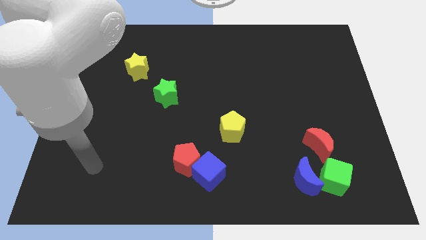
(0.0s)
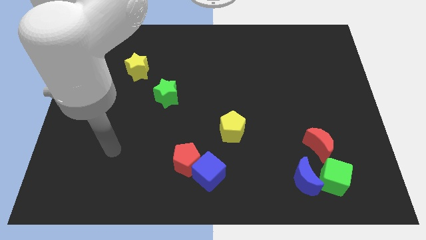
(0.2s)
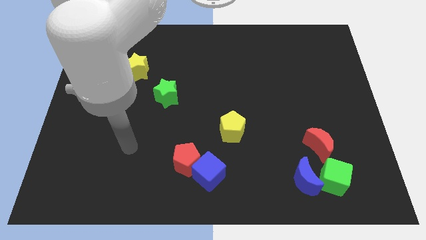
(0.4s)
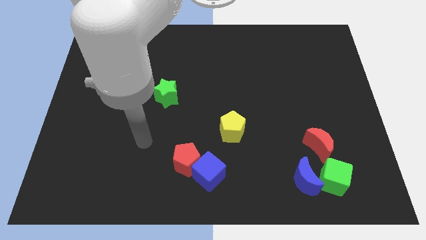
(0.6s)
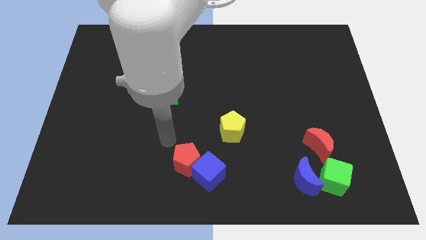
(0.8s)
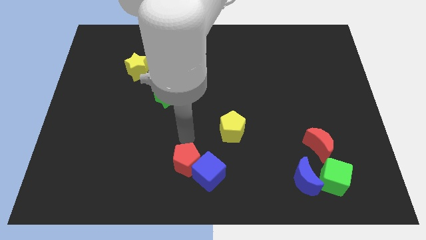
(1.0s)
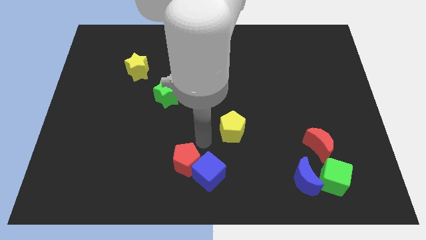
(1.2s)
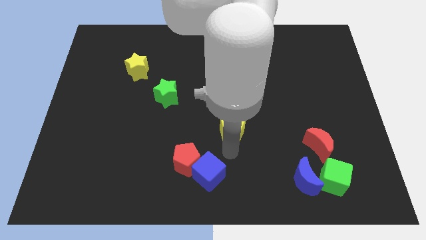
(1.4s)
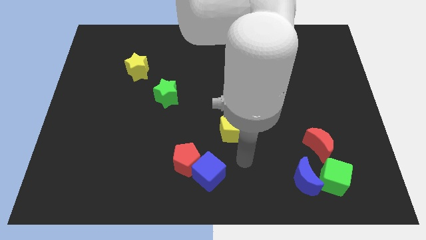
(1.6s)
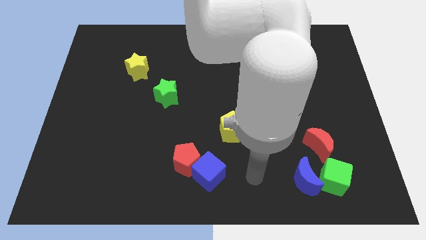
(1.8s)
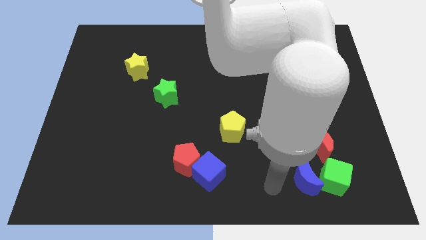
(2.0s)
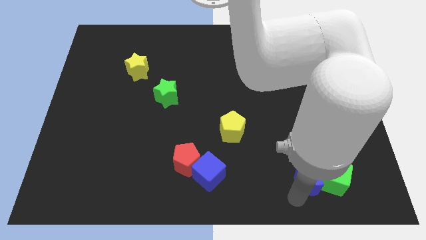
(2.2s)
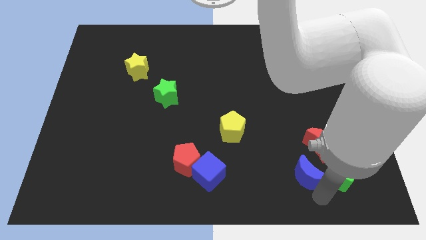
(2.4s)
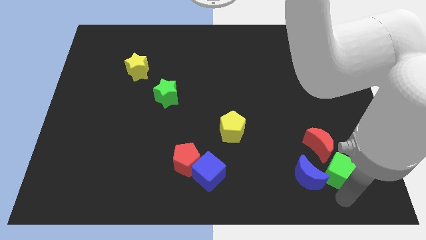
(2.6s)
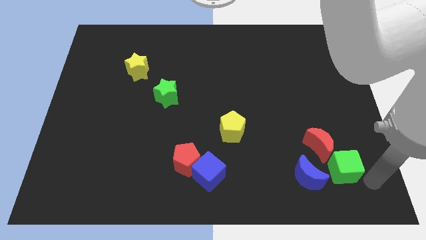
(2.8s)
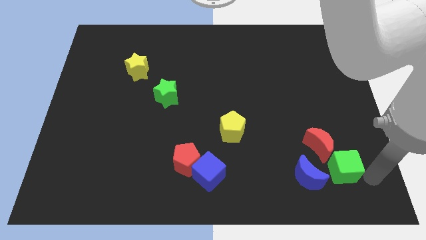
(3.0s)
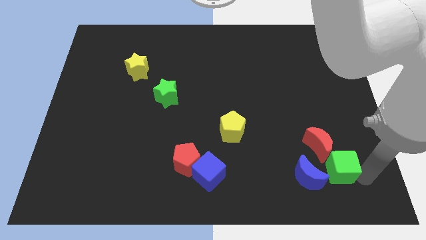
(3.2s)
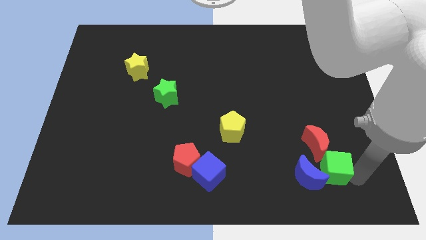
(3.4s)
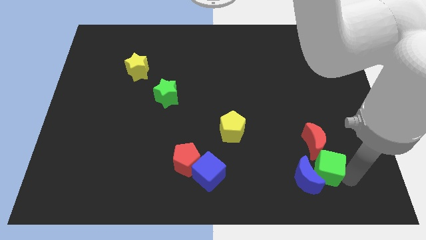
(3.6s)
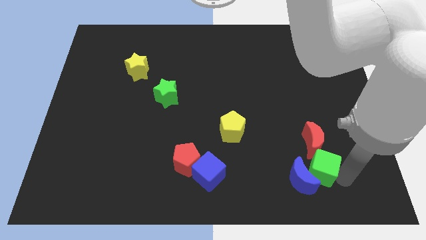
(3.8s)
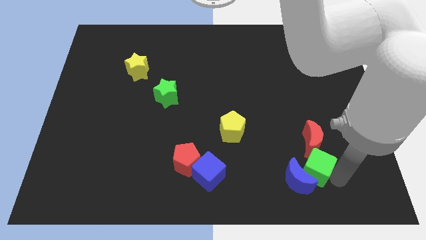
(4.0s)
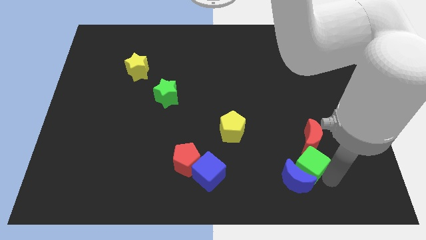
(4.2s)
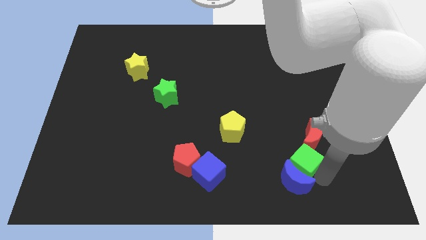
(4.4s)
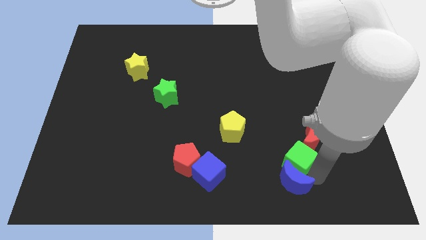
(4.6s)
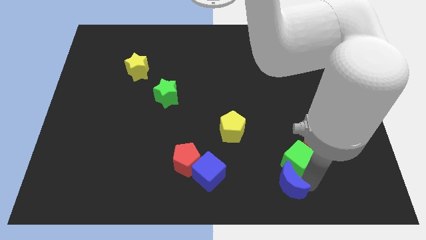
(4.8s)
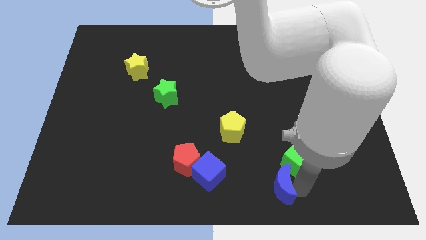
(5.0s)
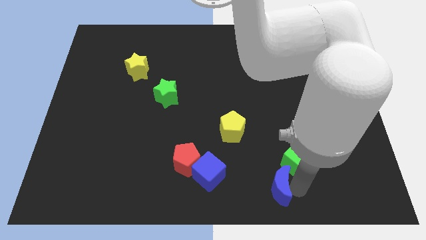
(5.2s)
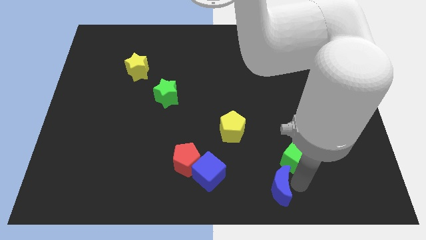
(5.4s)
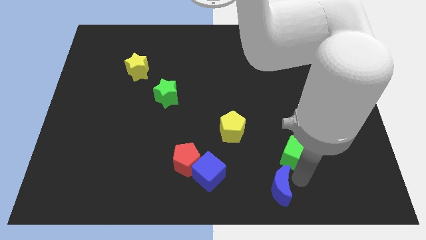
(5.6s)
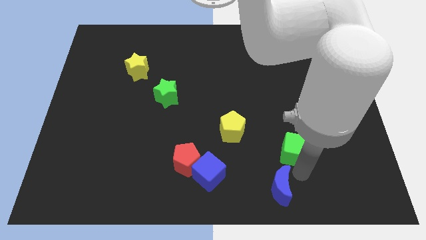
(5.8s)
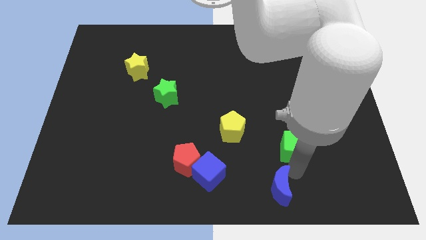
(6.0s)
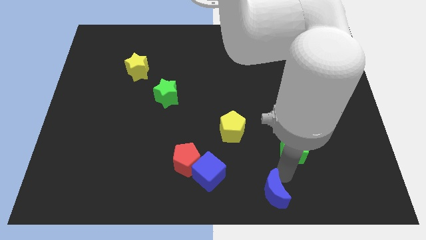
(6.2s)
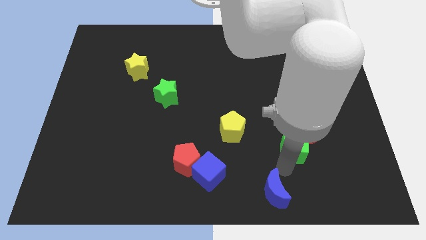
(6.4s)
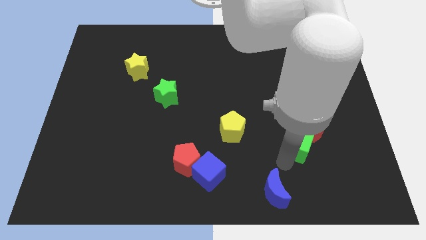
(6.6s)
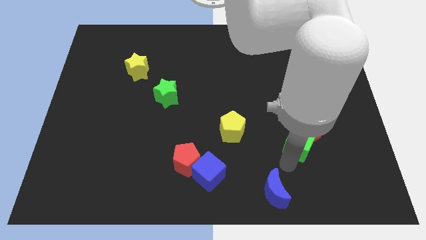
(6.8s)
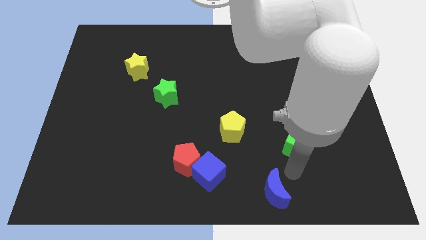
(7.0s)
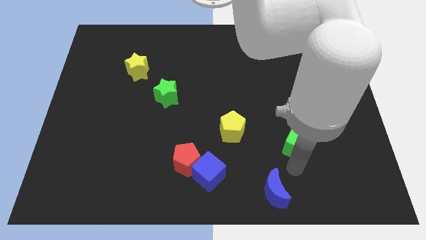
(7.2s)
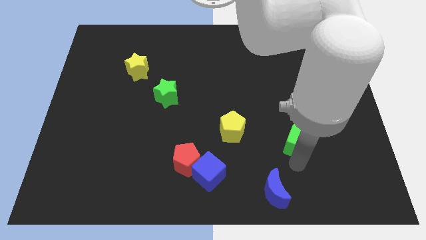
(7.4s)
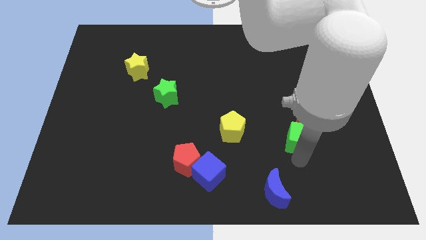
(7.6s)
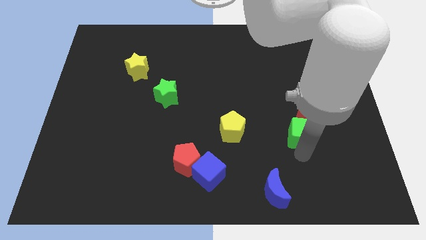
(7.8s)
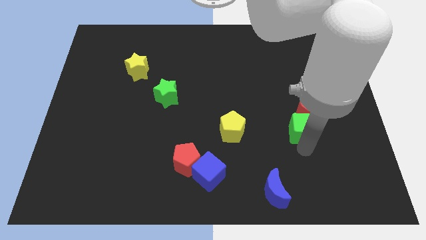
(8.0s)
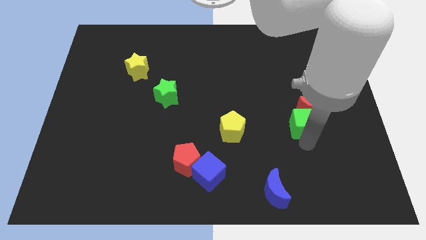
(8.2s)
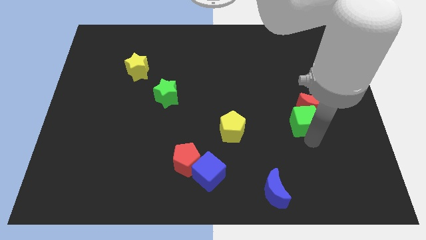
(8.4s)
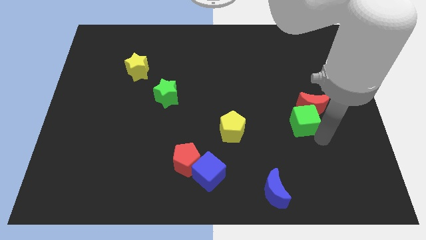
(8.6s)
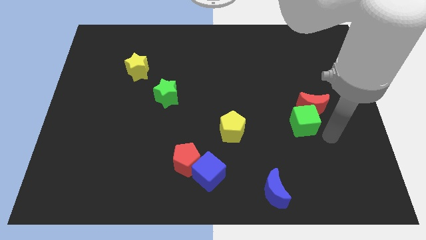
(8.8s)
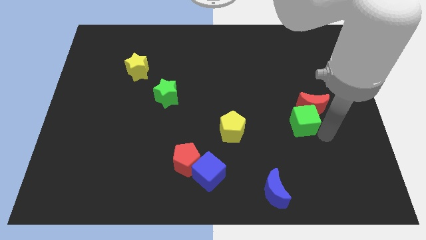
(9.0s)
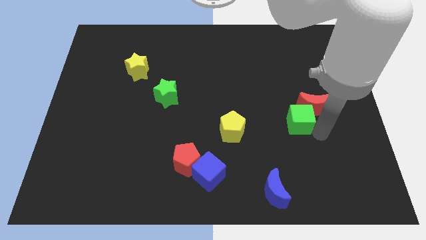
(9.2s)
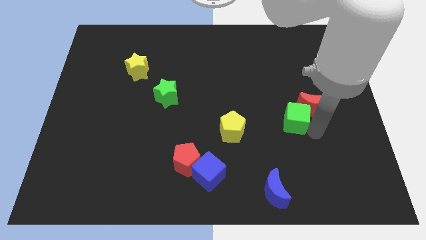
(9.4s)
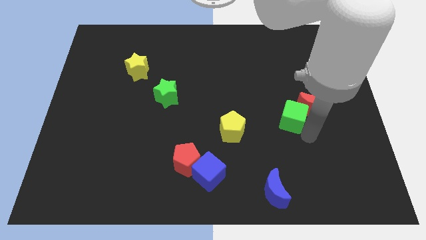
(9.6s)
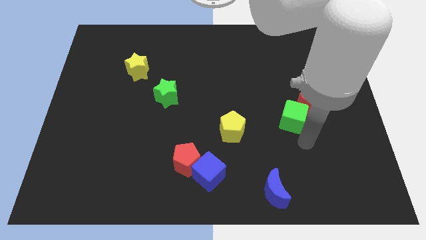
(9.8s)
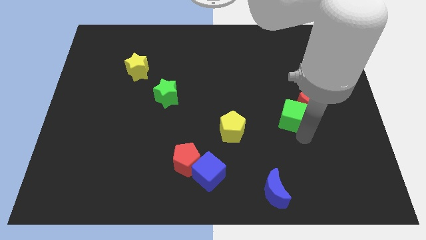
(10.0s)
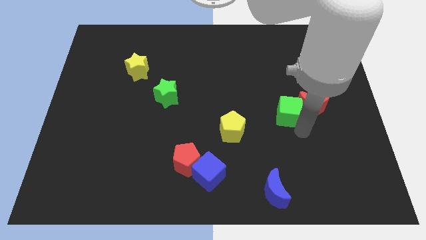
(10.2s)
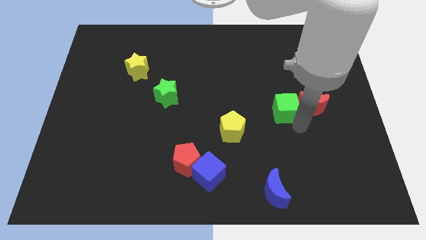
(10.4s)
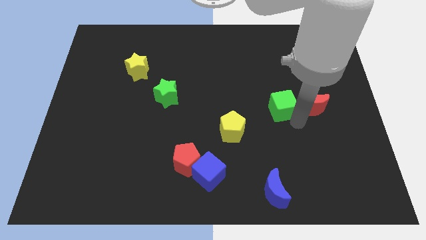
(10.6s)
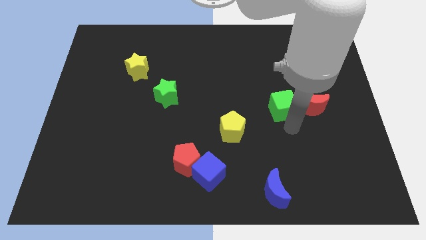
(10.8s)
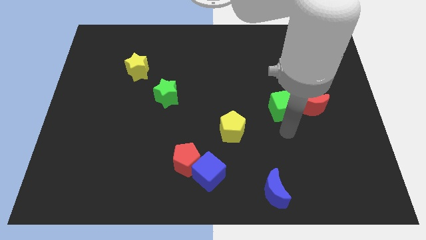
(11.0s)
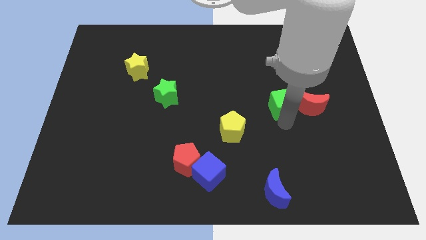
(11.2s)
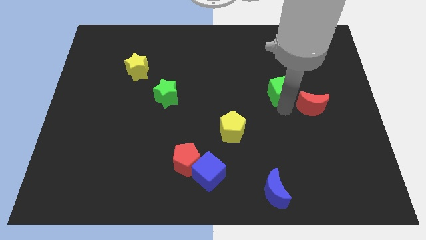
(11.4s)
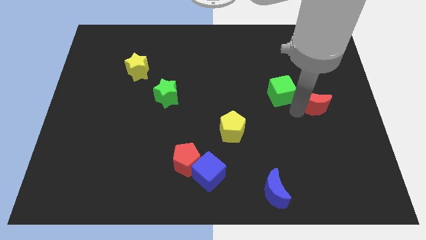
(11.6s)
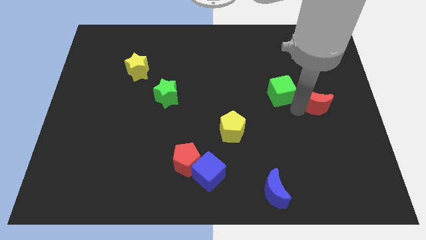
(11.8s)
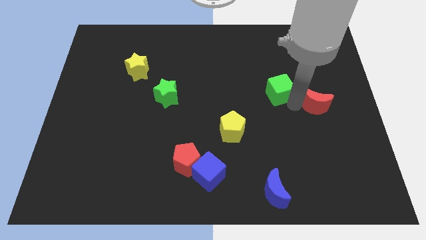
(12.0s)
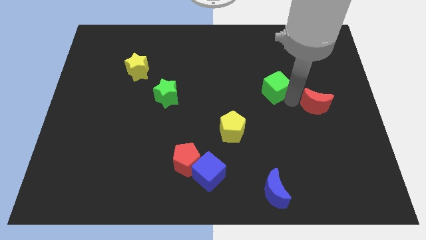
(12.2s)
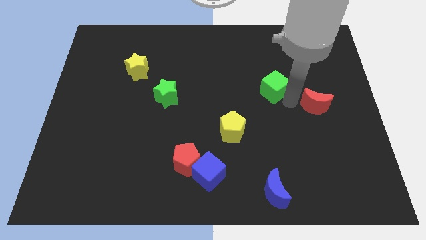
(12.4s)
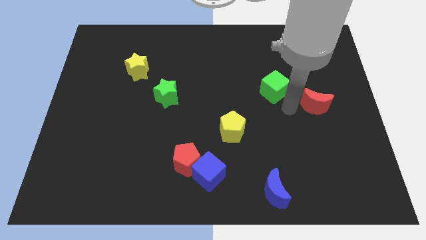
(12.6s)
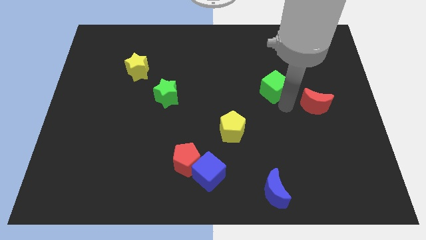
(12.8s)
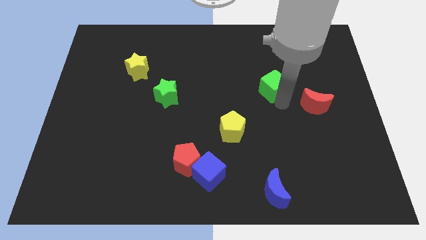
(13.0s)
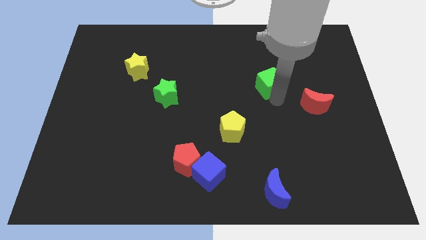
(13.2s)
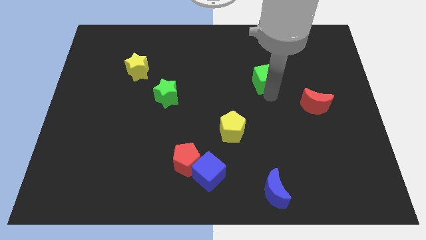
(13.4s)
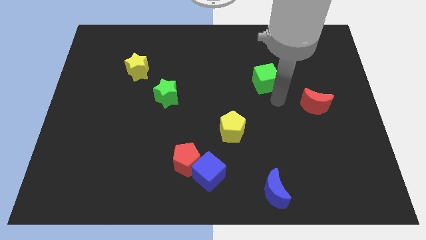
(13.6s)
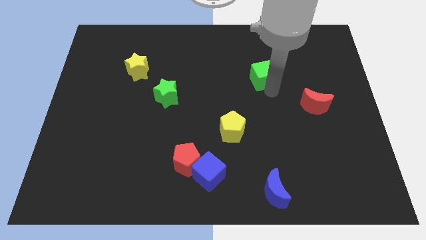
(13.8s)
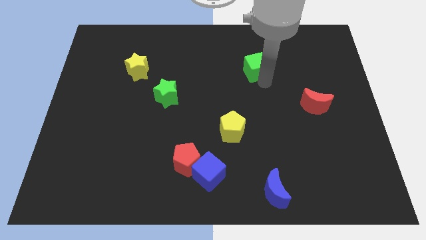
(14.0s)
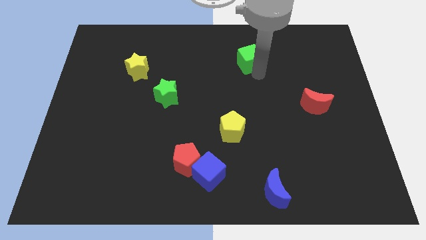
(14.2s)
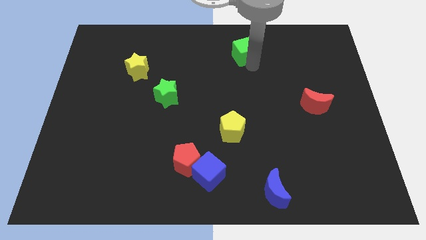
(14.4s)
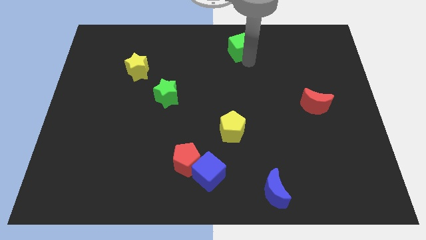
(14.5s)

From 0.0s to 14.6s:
push the green cube to the top

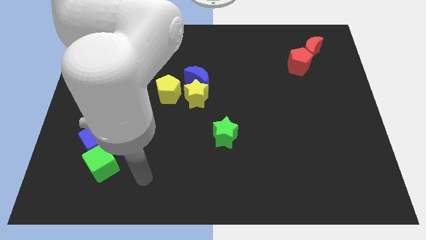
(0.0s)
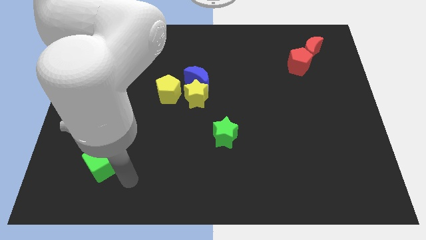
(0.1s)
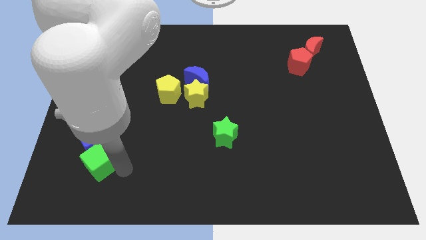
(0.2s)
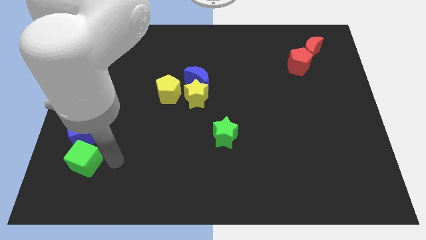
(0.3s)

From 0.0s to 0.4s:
put the blue cube to the left side of the board

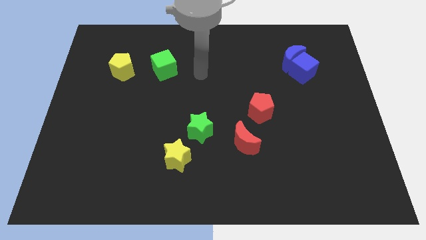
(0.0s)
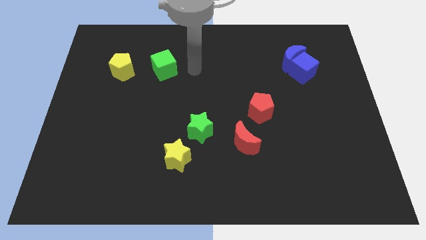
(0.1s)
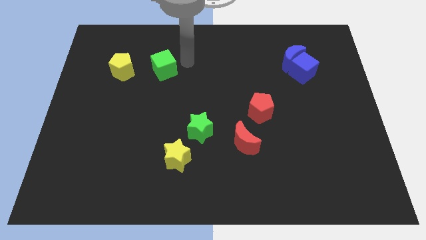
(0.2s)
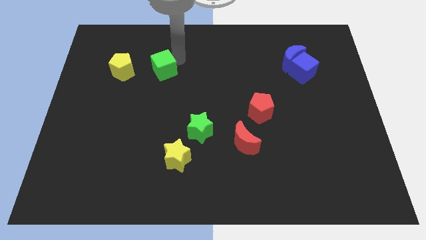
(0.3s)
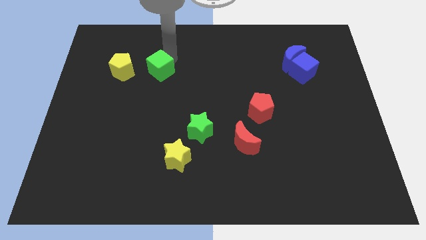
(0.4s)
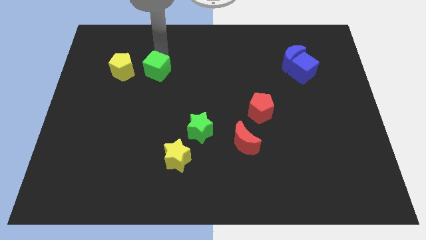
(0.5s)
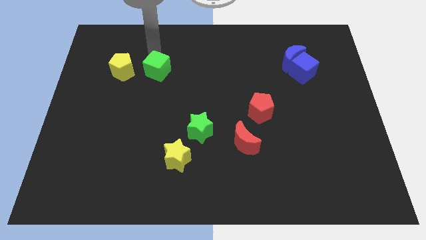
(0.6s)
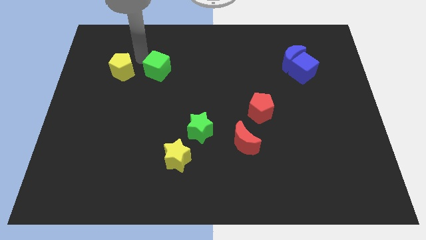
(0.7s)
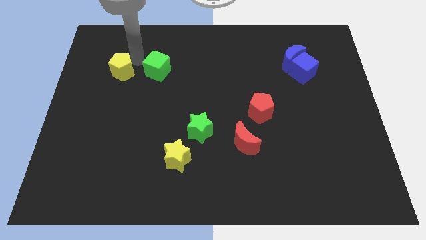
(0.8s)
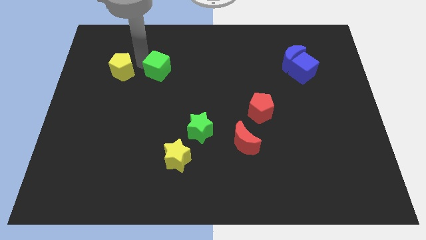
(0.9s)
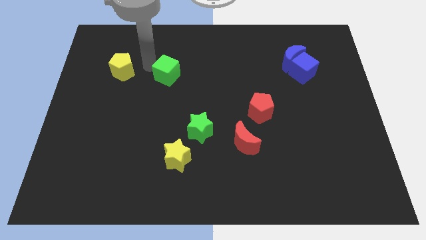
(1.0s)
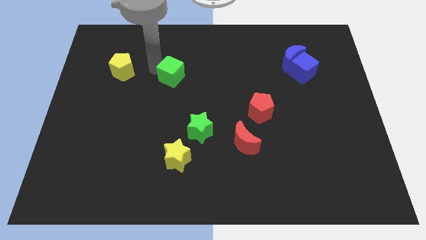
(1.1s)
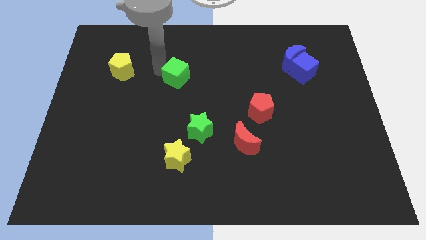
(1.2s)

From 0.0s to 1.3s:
move the green cube to the middle of the board
